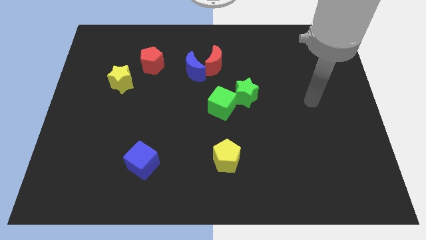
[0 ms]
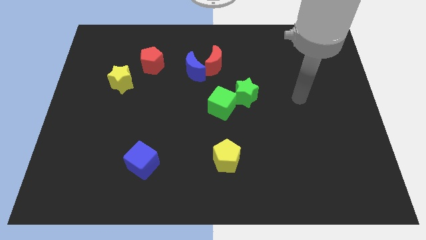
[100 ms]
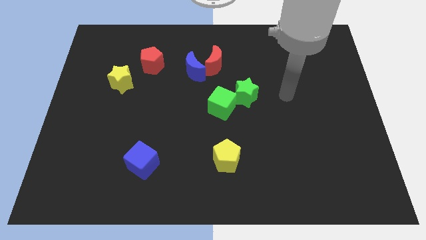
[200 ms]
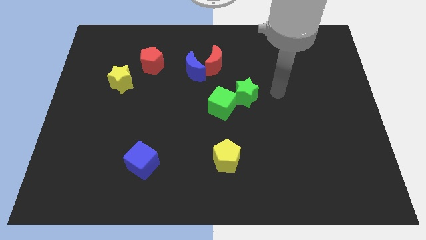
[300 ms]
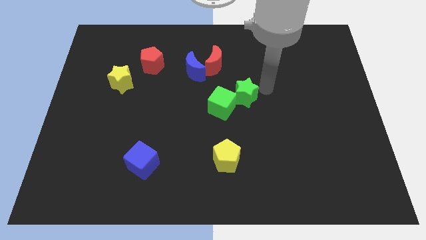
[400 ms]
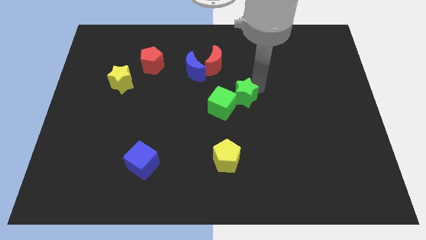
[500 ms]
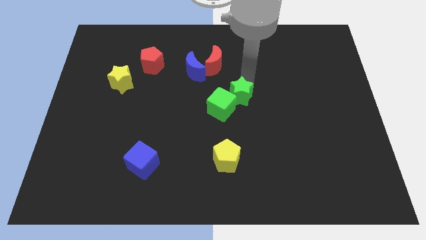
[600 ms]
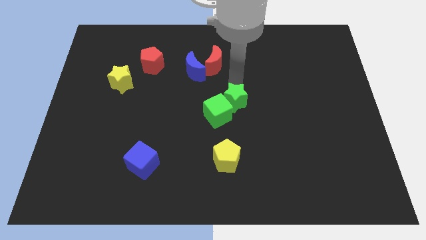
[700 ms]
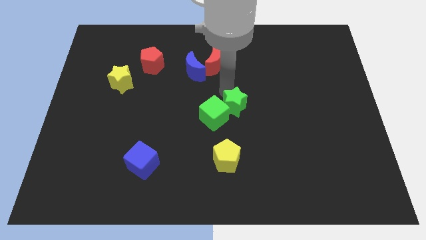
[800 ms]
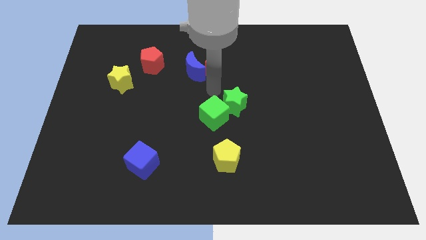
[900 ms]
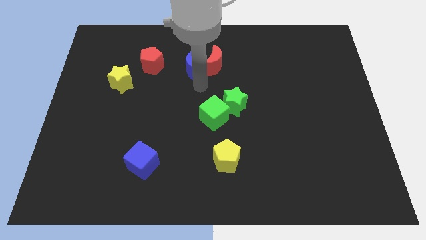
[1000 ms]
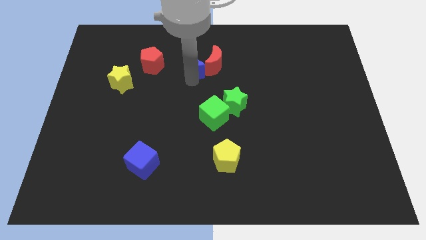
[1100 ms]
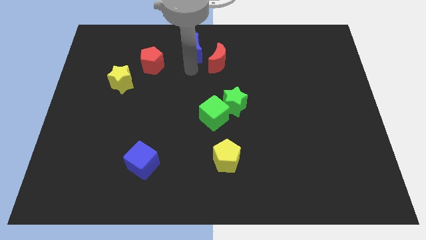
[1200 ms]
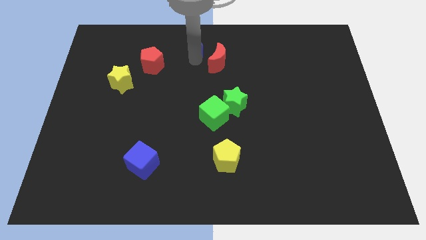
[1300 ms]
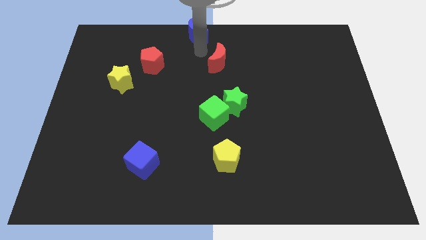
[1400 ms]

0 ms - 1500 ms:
pull the red moon apart from the blue moon

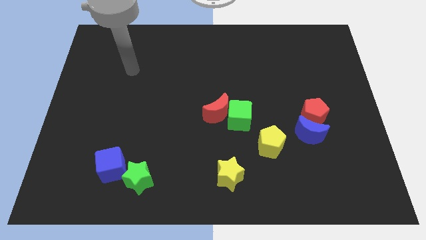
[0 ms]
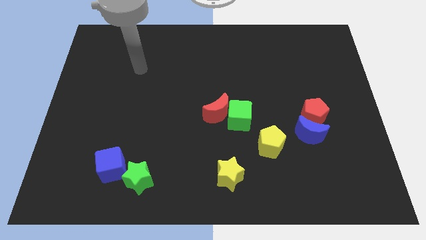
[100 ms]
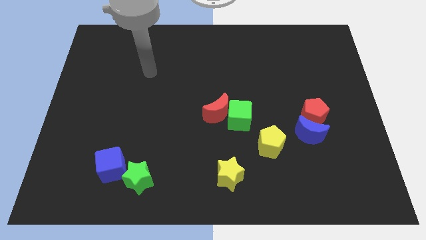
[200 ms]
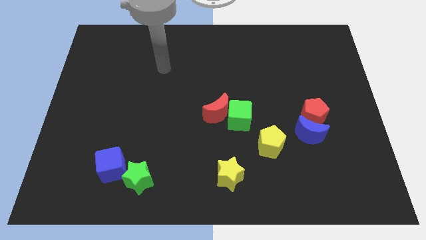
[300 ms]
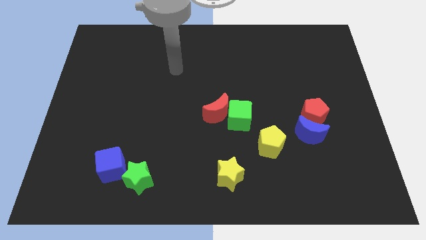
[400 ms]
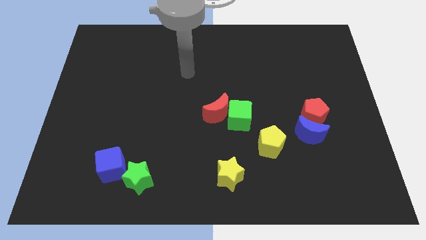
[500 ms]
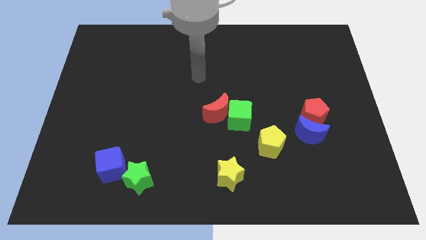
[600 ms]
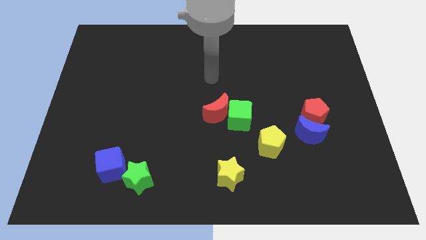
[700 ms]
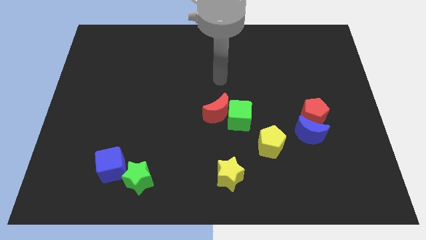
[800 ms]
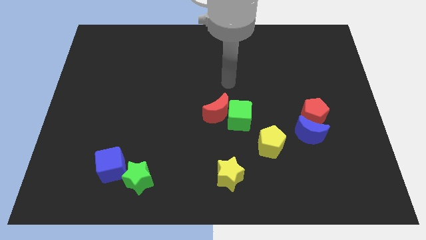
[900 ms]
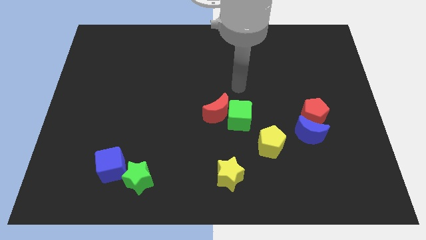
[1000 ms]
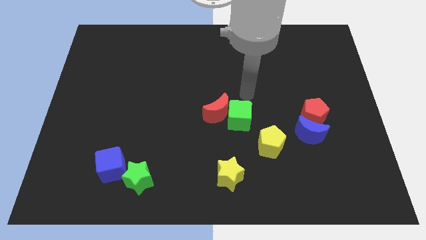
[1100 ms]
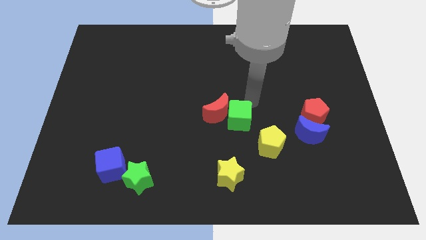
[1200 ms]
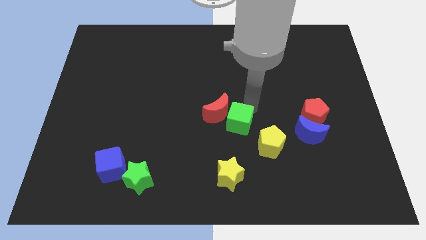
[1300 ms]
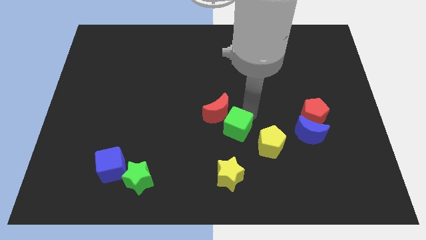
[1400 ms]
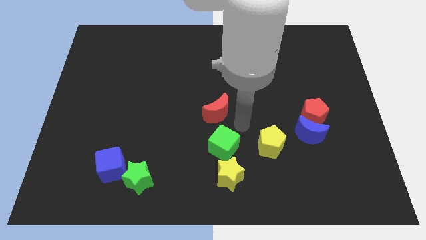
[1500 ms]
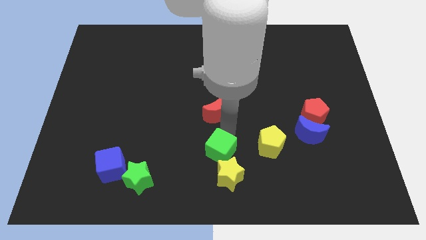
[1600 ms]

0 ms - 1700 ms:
move the red moon away from the green cube

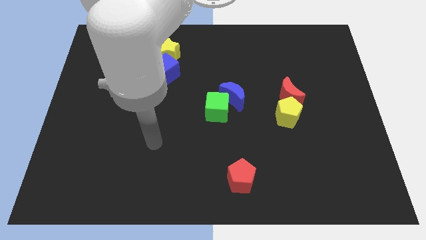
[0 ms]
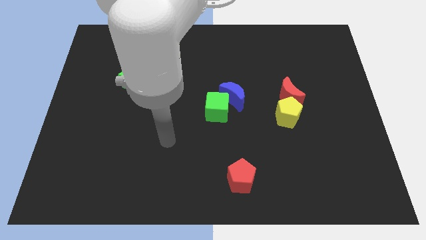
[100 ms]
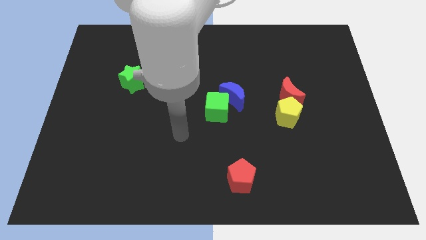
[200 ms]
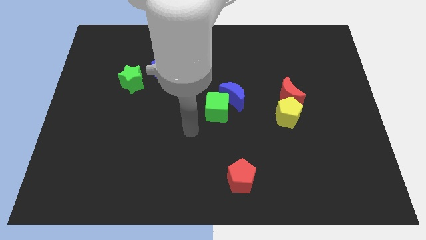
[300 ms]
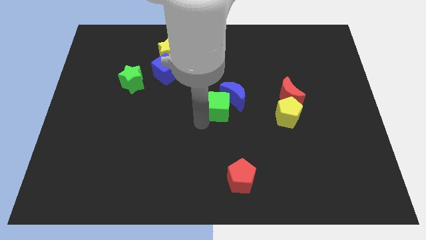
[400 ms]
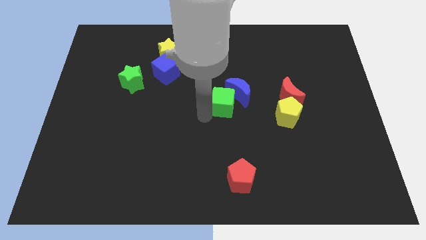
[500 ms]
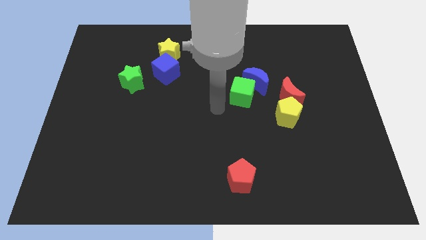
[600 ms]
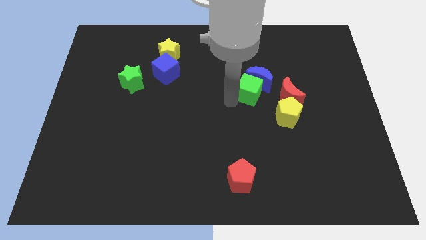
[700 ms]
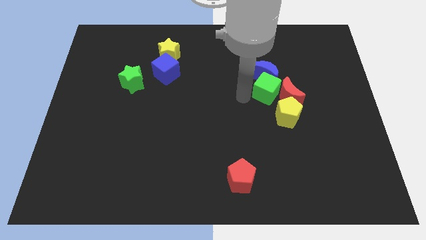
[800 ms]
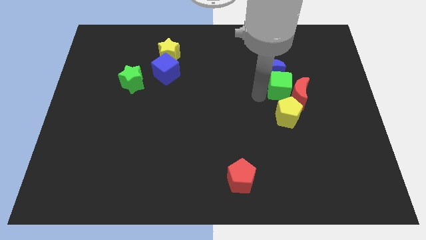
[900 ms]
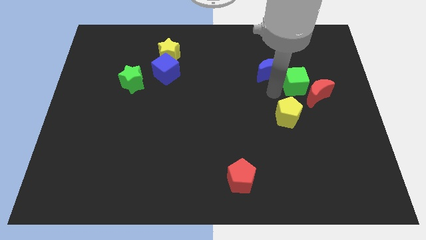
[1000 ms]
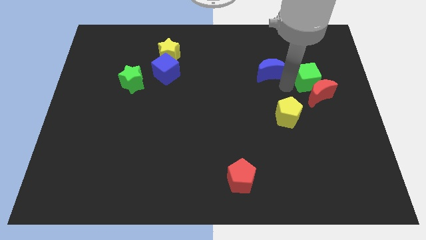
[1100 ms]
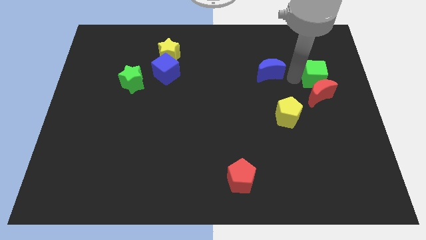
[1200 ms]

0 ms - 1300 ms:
pull the blue moon apart from the green cube

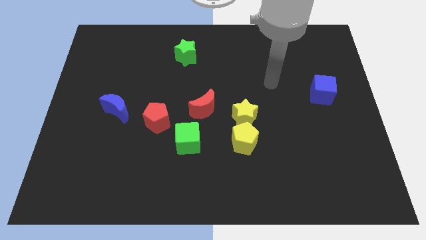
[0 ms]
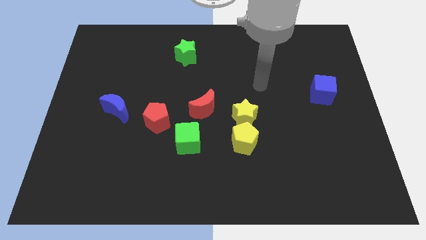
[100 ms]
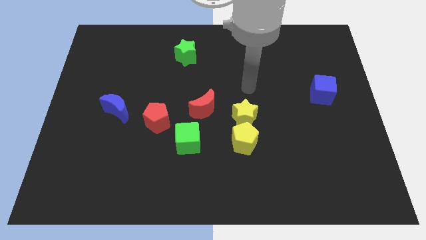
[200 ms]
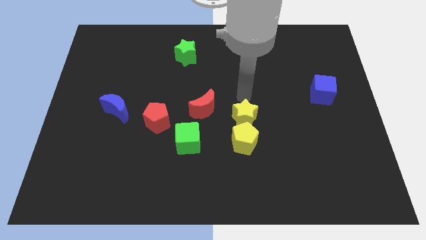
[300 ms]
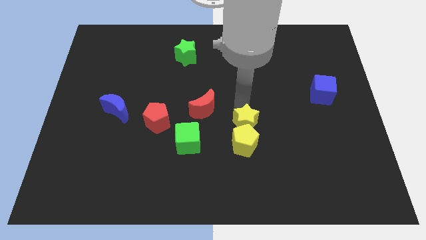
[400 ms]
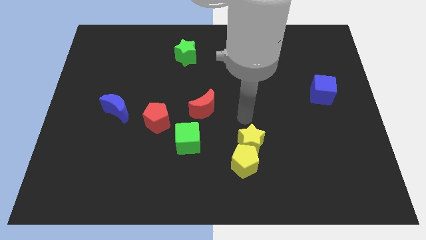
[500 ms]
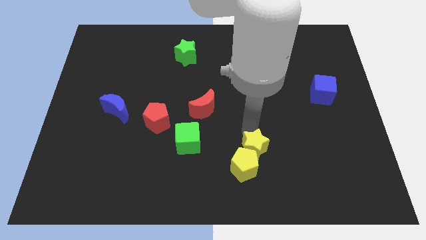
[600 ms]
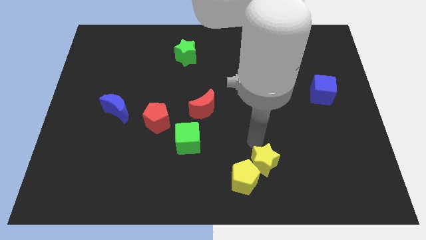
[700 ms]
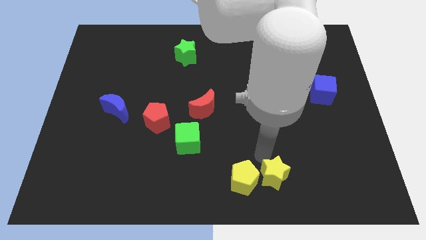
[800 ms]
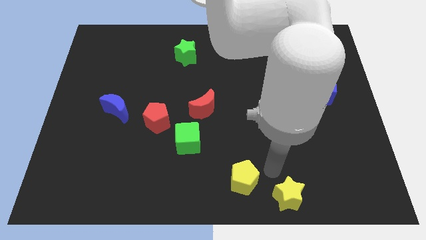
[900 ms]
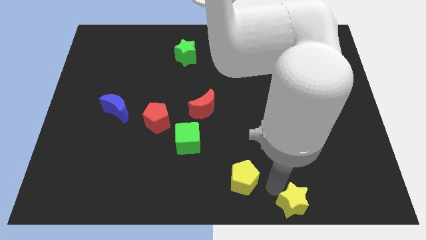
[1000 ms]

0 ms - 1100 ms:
pull the yellow pentagon apart from the yellow star

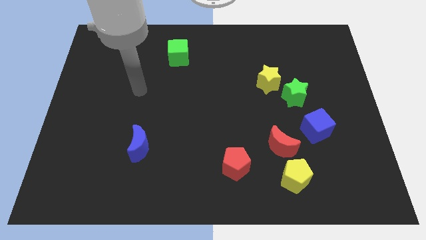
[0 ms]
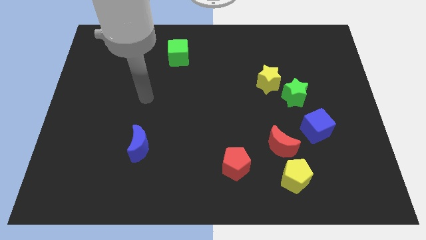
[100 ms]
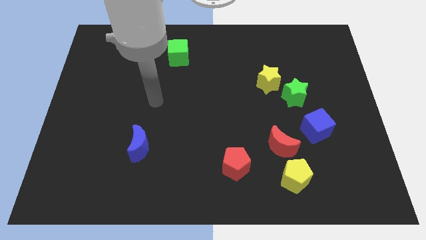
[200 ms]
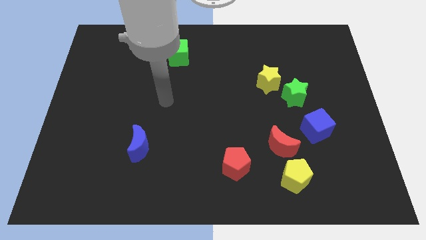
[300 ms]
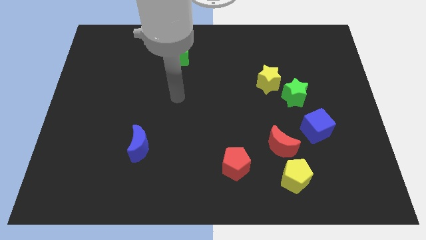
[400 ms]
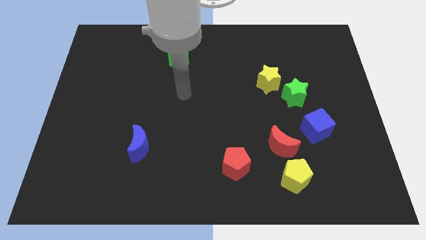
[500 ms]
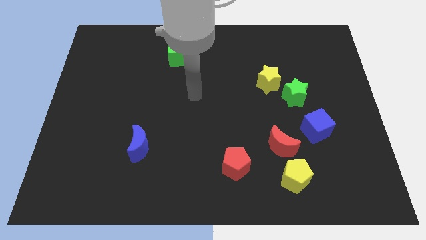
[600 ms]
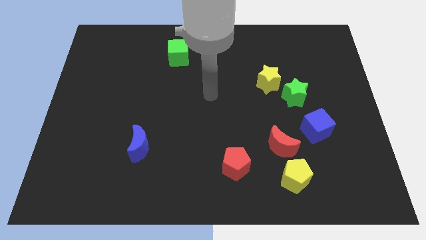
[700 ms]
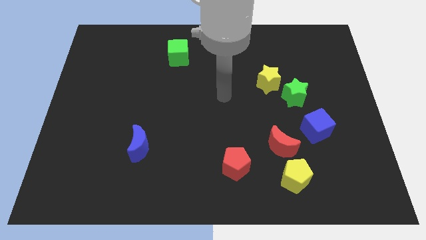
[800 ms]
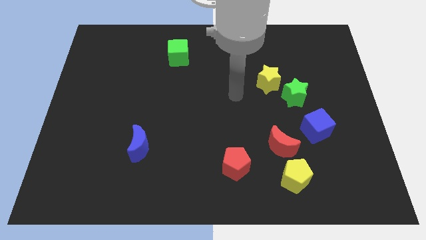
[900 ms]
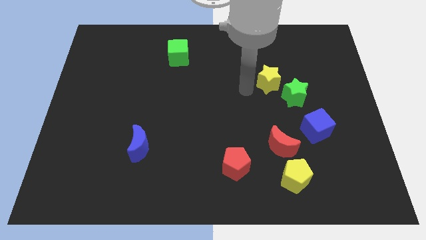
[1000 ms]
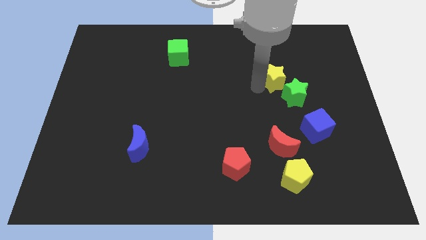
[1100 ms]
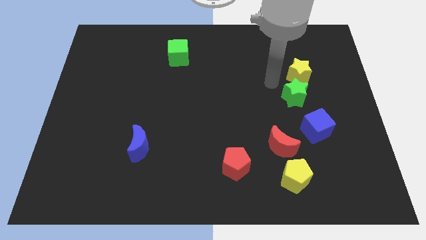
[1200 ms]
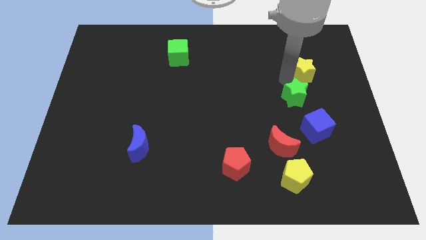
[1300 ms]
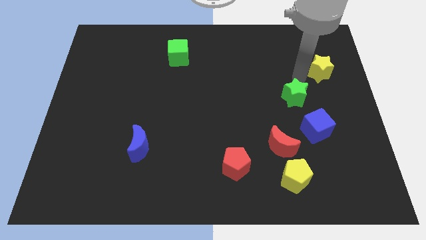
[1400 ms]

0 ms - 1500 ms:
pull the green star apart from the yellow star

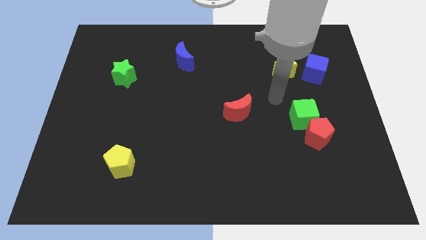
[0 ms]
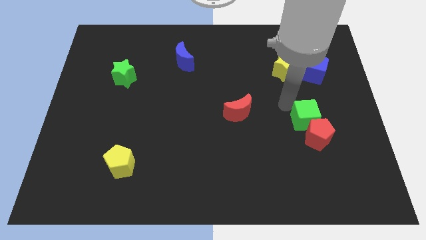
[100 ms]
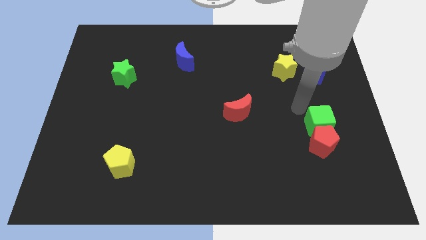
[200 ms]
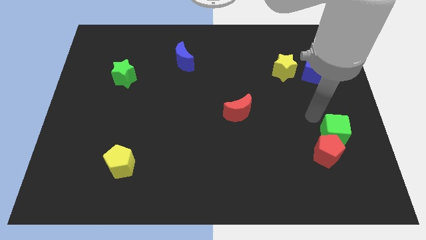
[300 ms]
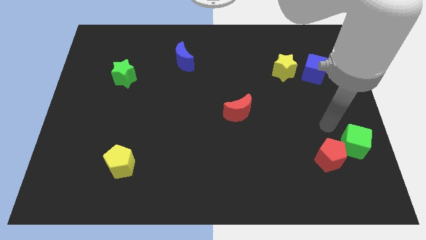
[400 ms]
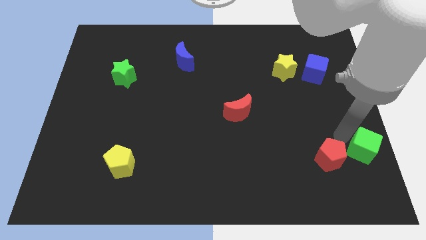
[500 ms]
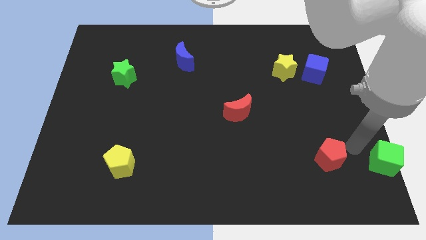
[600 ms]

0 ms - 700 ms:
move the red pentagon away from the green cube

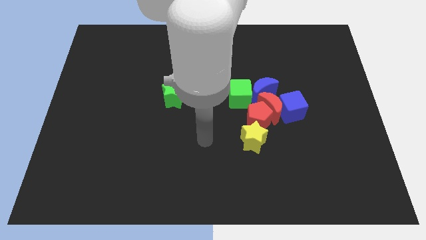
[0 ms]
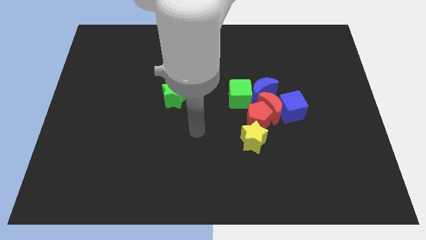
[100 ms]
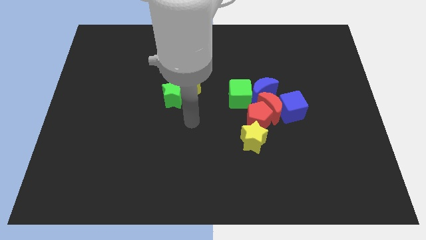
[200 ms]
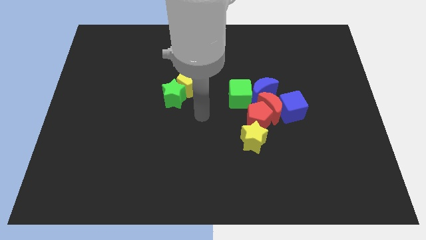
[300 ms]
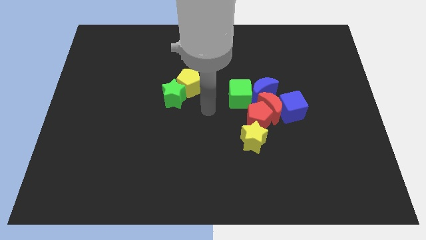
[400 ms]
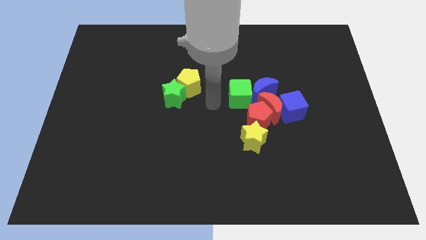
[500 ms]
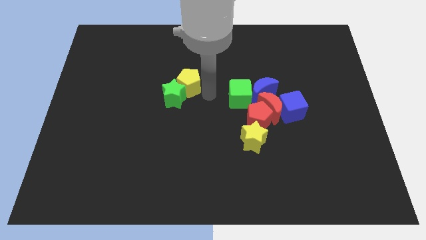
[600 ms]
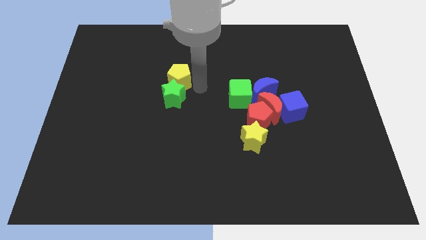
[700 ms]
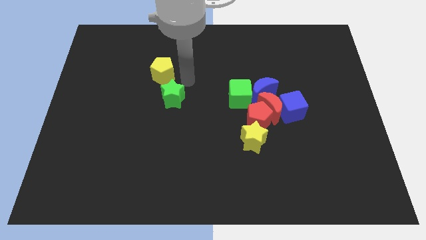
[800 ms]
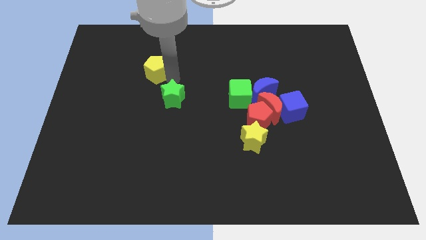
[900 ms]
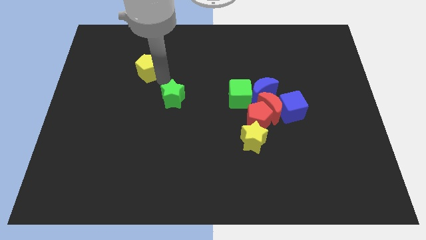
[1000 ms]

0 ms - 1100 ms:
separate the green star from the yellow pentagon

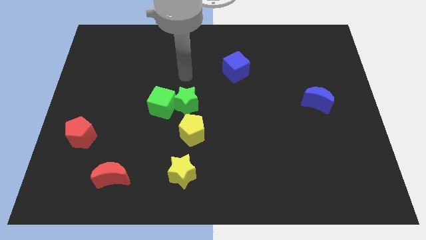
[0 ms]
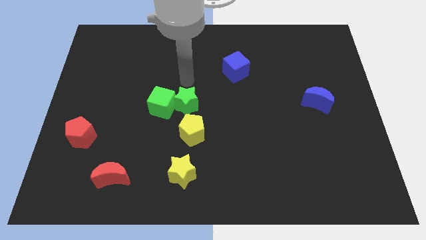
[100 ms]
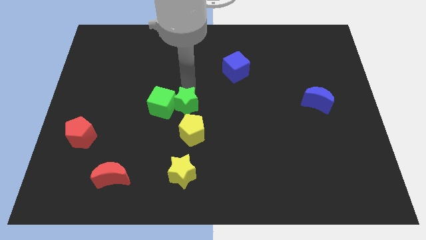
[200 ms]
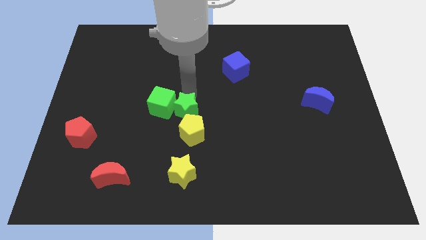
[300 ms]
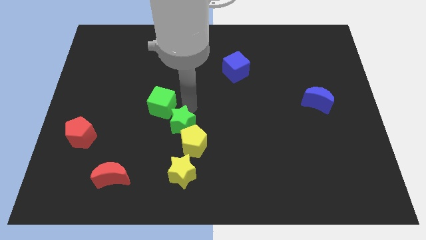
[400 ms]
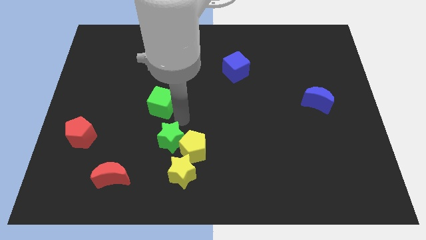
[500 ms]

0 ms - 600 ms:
separate the green cube from the green star

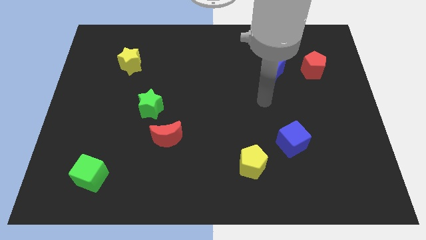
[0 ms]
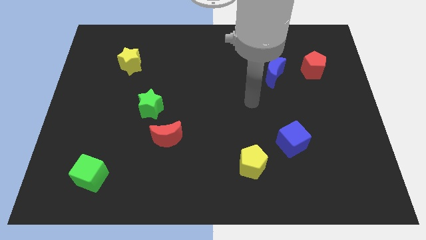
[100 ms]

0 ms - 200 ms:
pull the red moon apart from the green star
